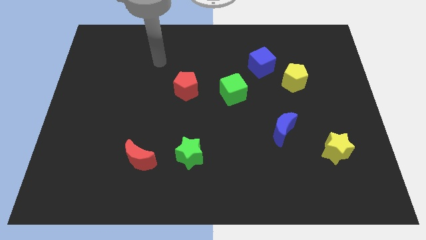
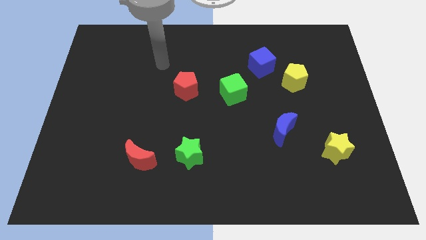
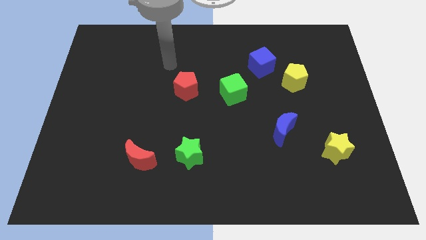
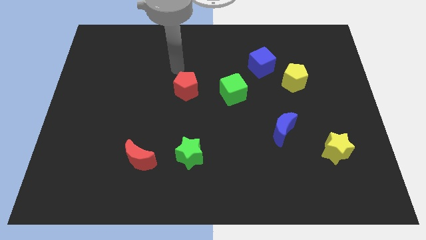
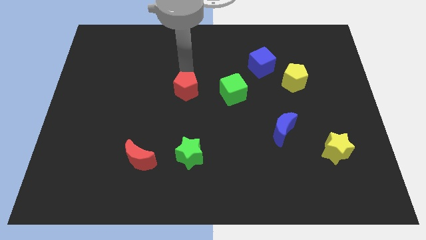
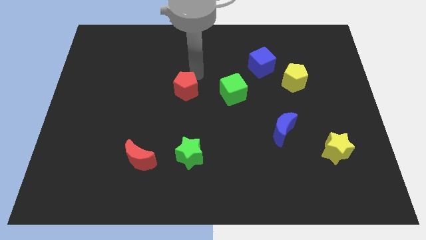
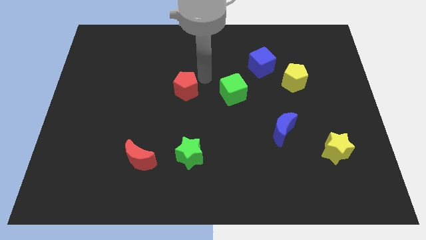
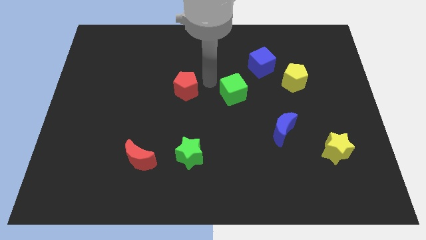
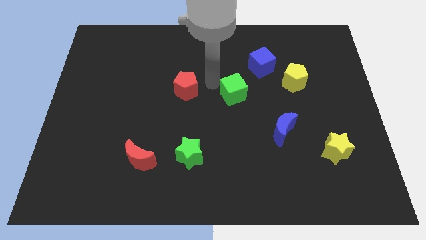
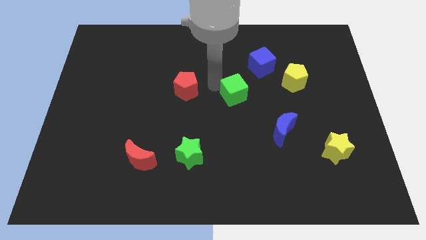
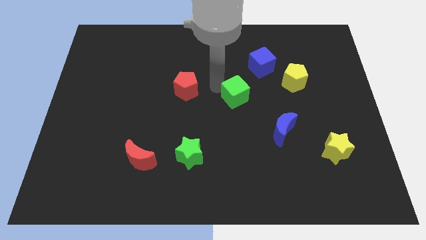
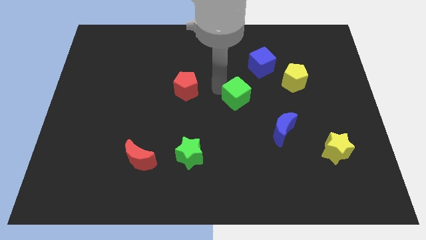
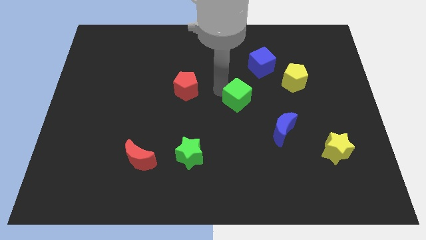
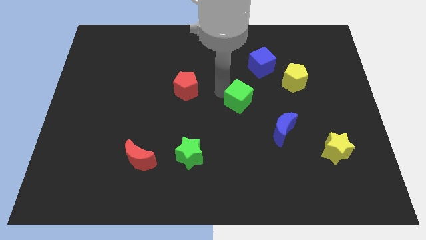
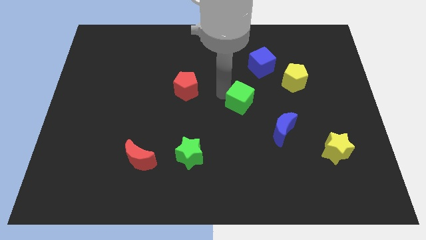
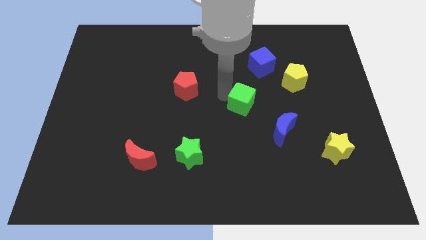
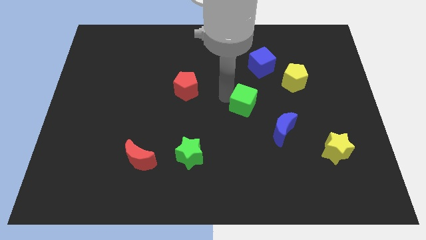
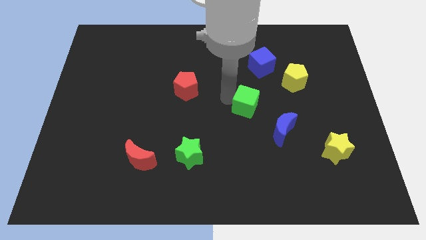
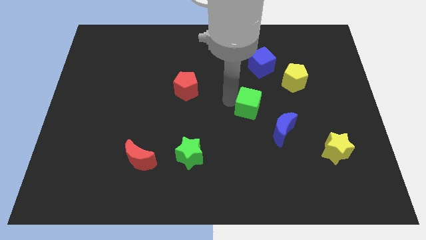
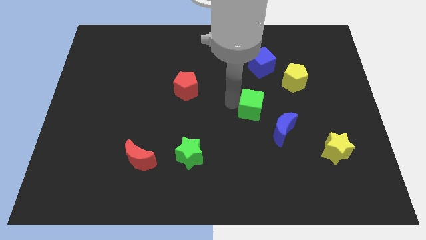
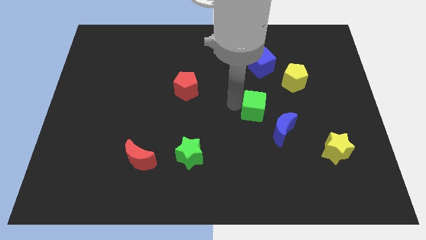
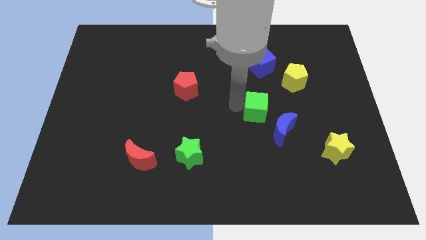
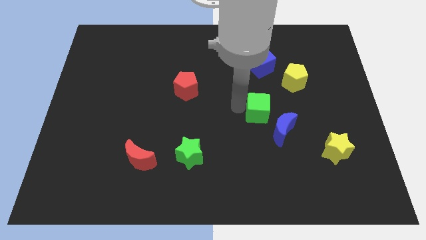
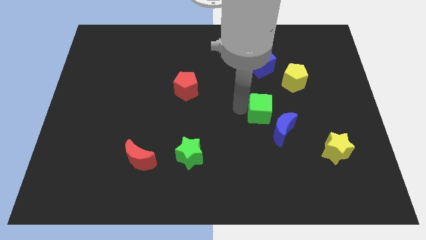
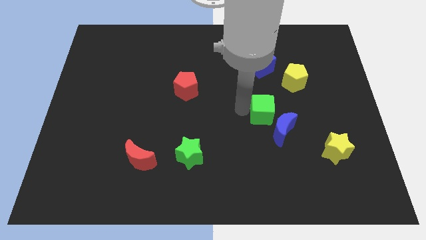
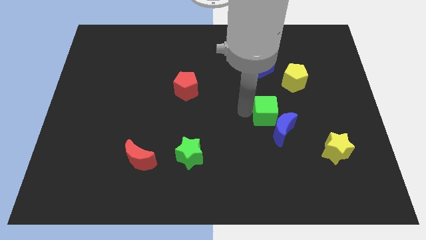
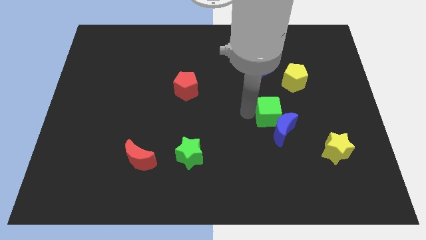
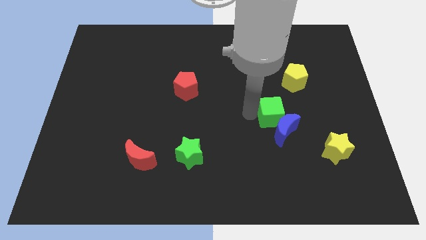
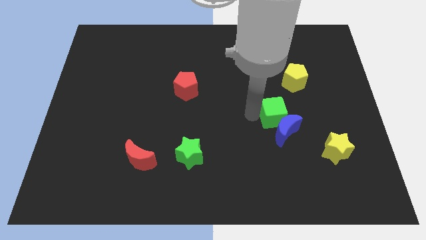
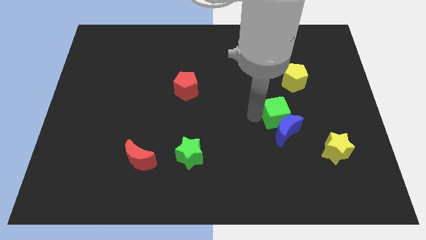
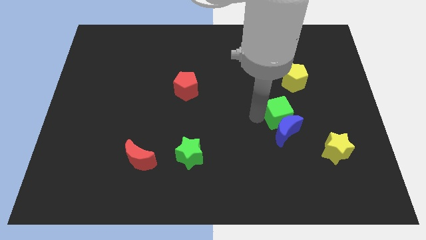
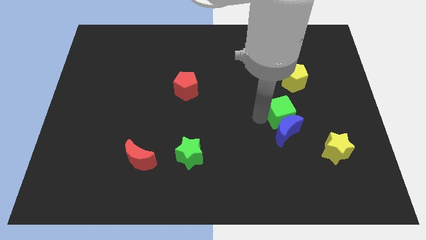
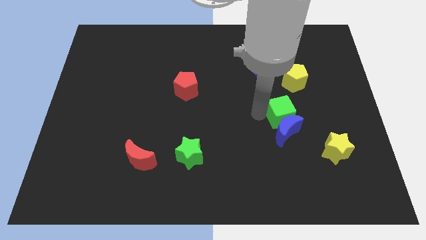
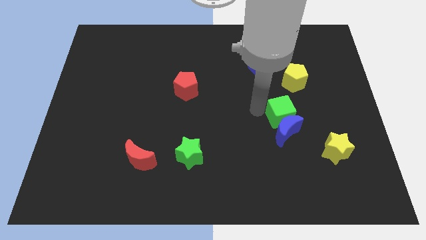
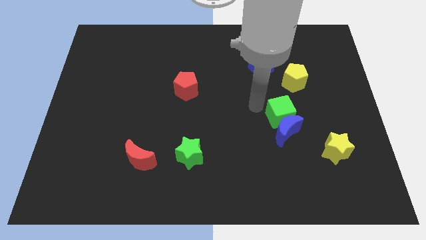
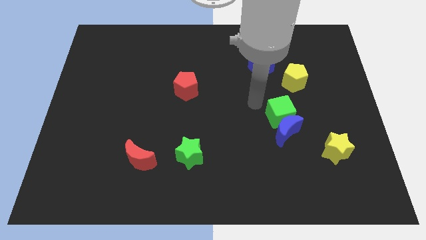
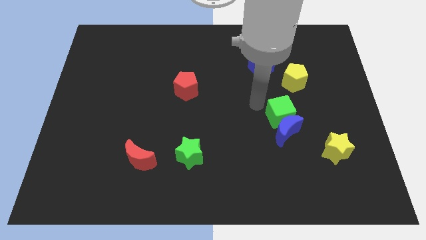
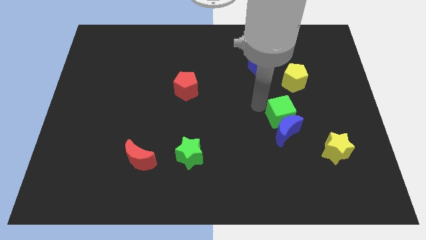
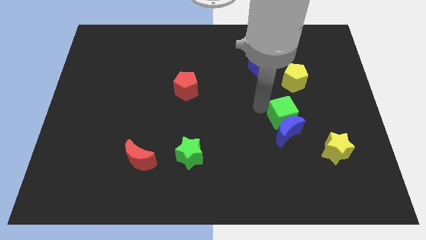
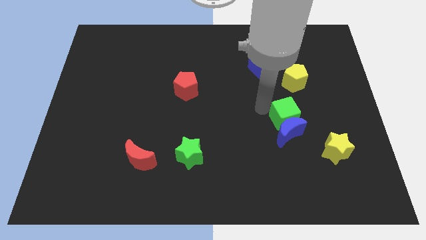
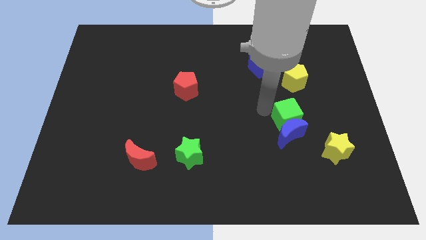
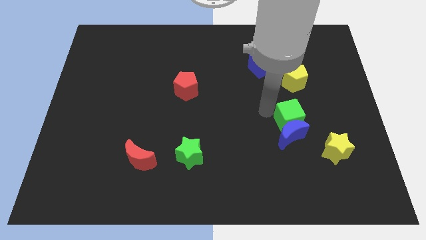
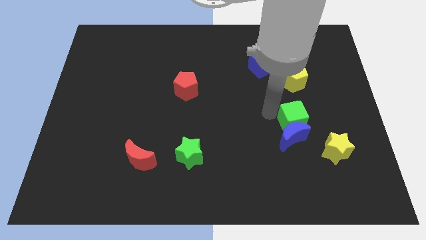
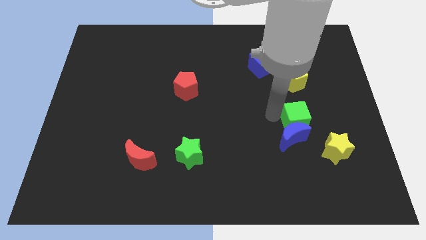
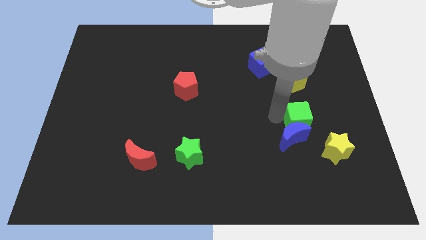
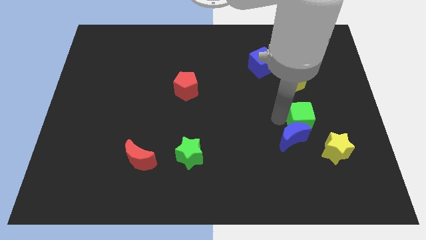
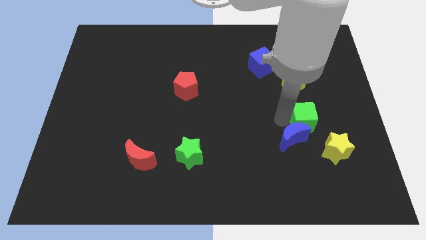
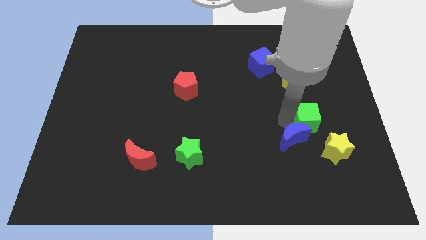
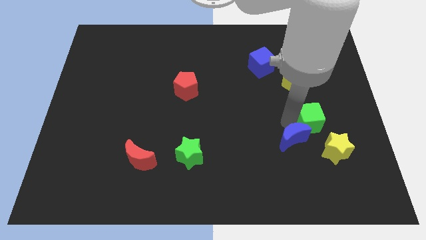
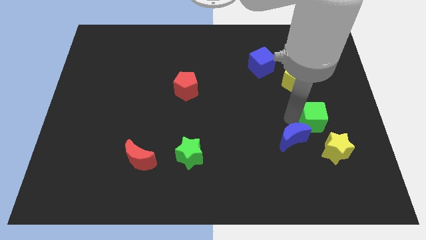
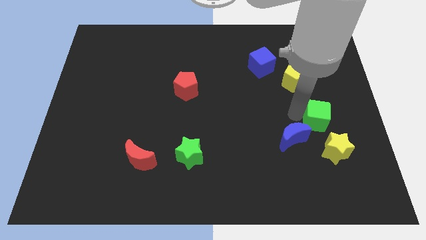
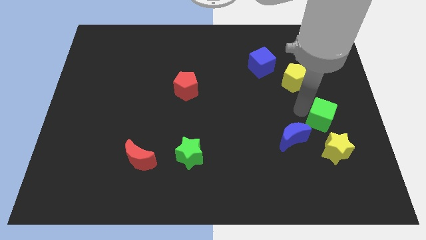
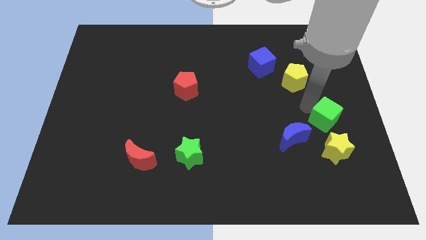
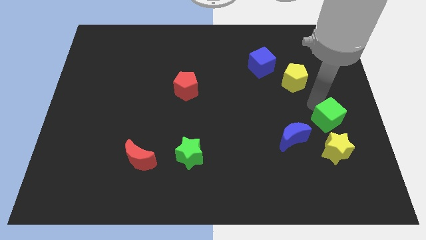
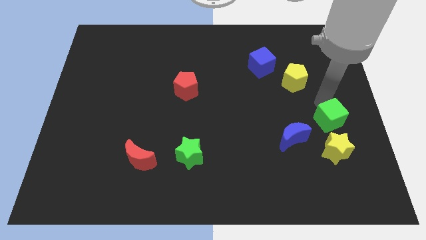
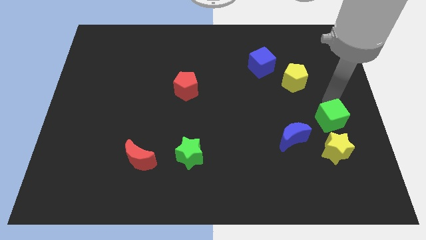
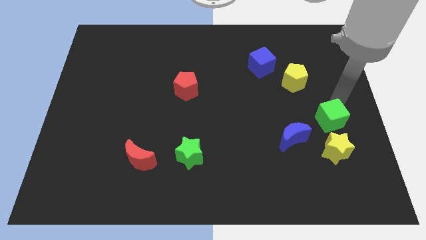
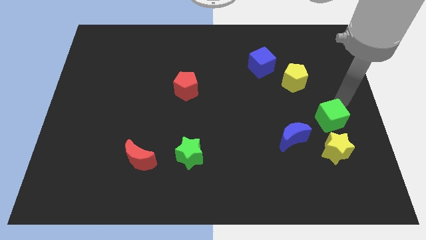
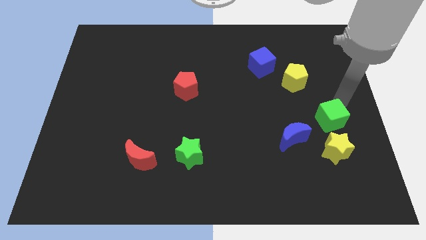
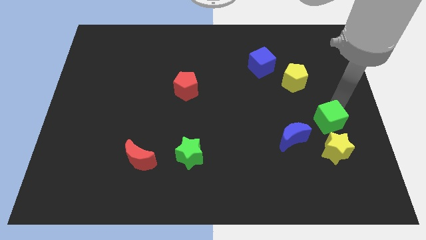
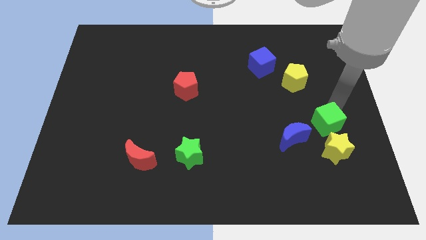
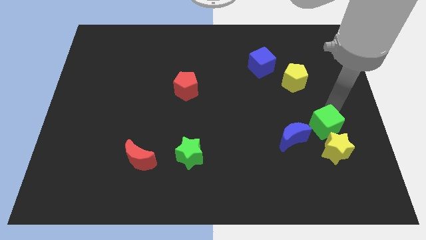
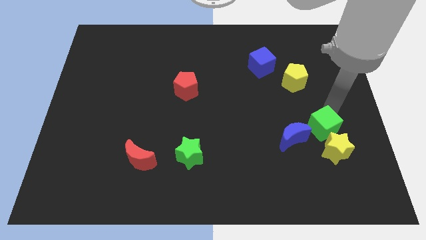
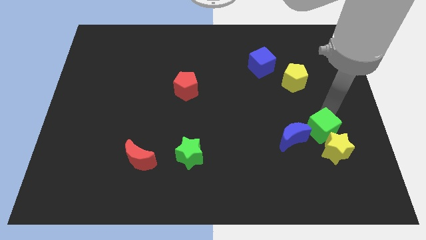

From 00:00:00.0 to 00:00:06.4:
move the green cube diagonally down and to the right

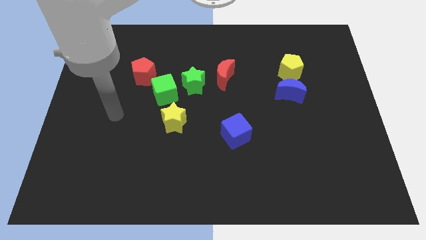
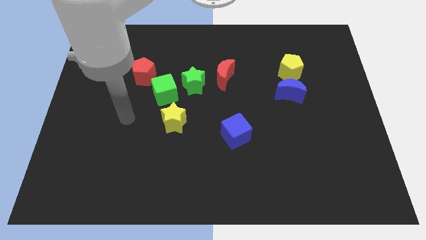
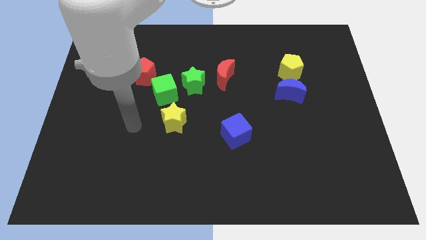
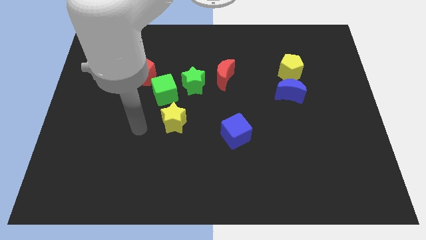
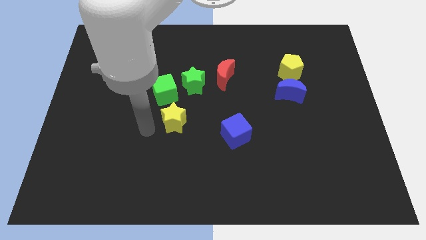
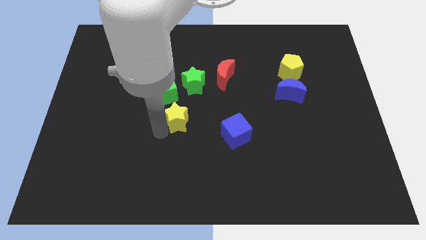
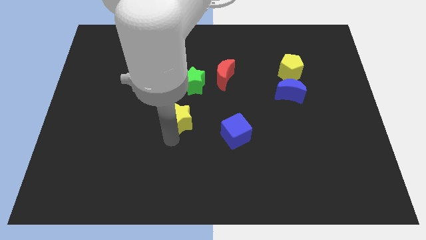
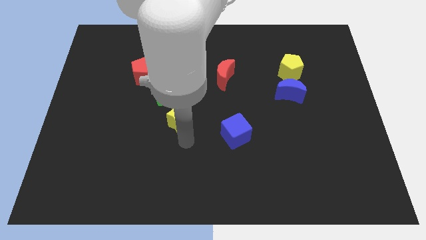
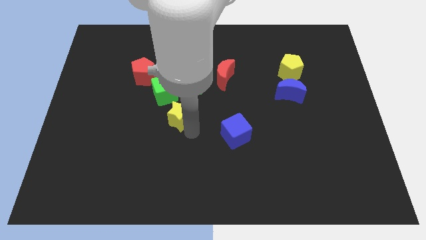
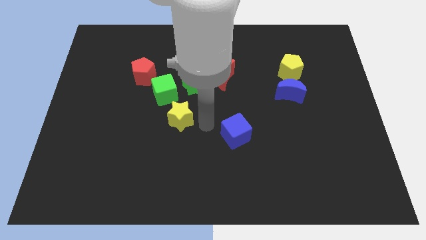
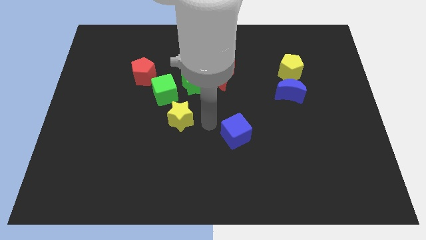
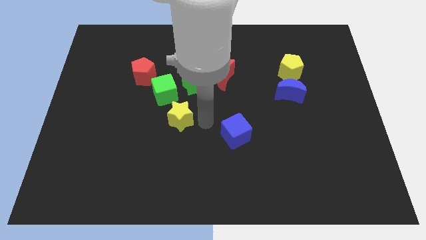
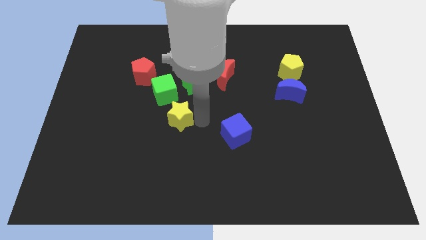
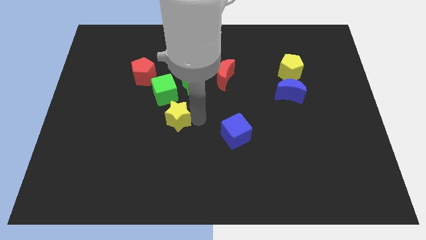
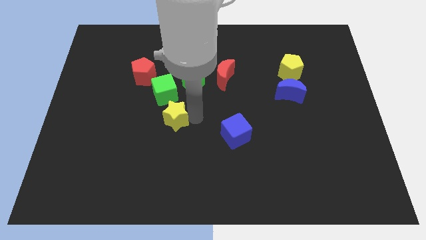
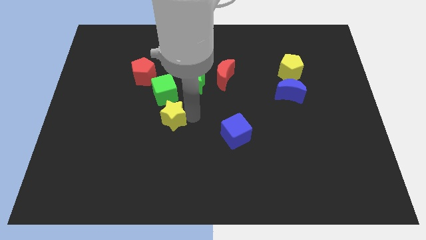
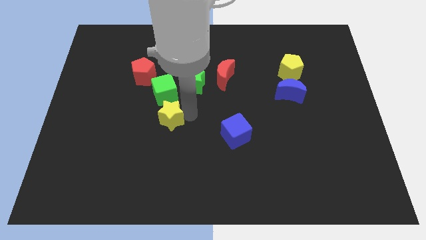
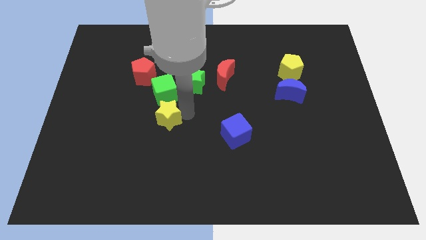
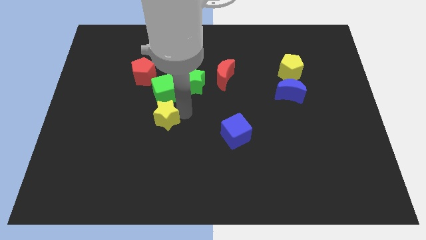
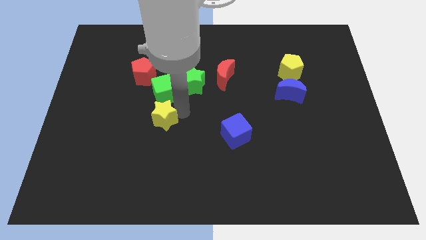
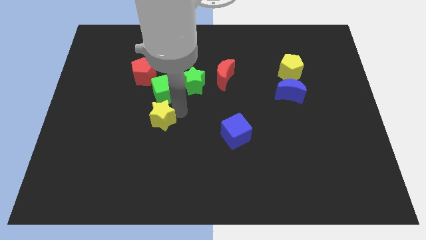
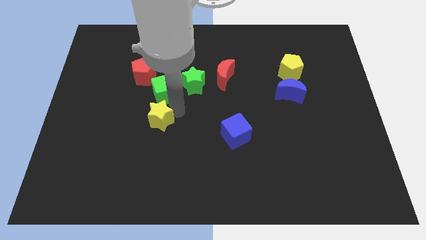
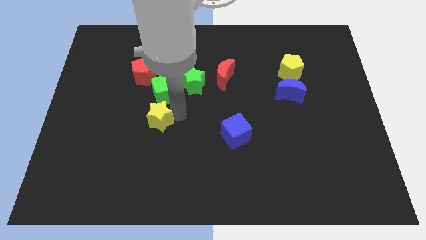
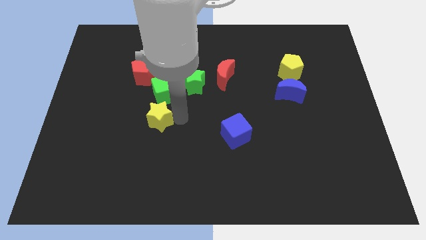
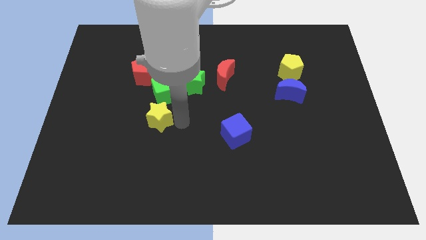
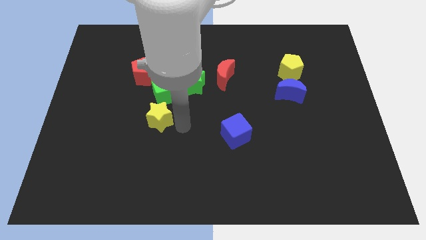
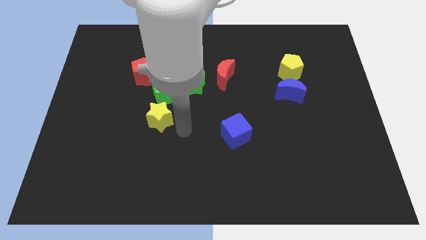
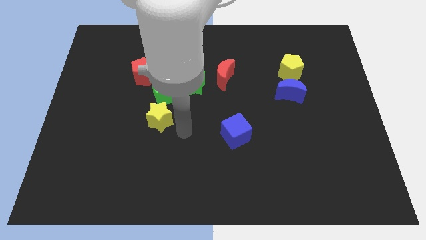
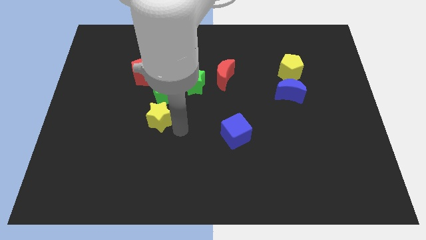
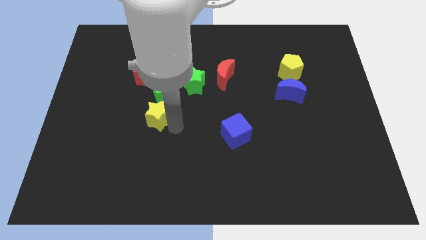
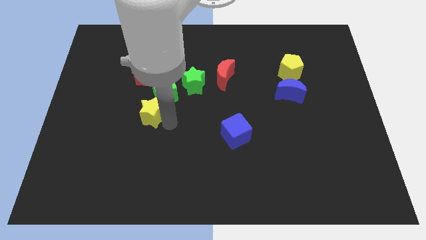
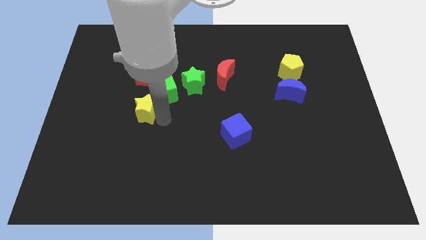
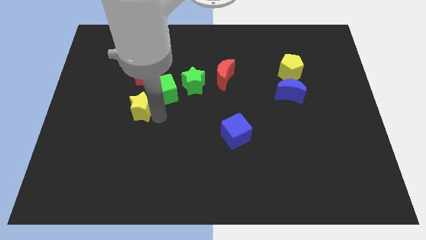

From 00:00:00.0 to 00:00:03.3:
push the yellow star a bit to the left
